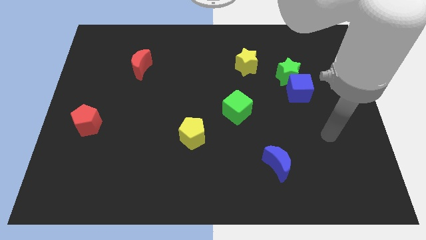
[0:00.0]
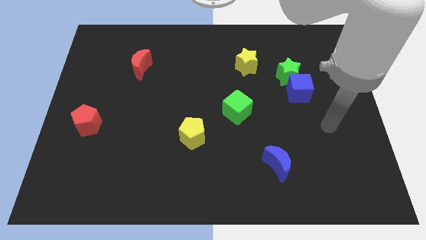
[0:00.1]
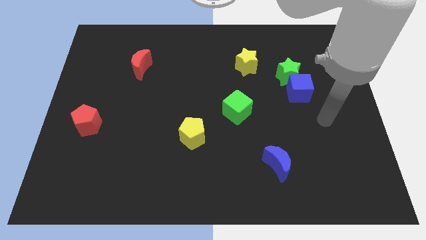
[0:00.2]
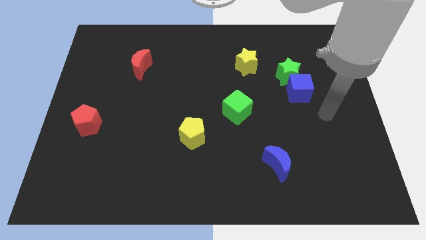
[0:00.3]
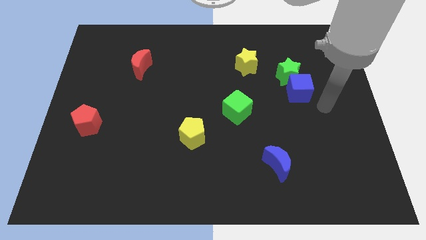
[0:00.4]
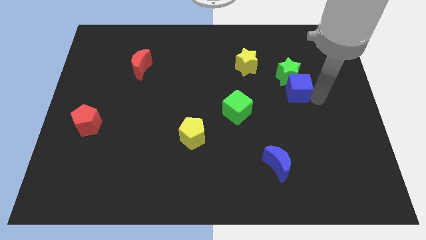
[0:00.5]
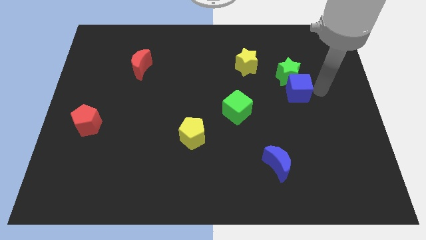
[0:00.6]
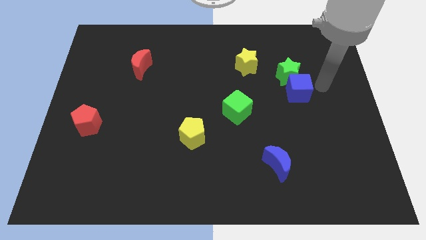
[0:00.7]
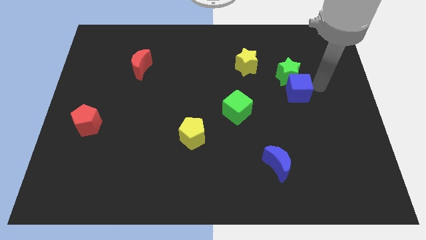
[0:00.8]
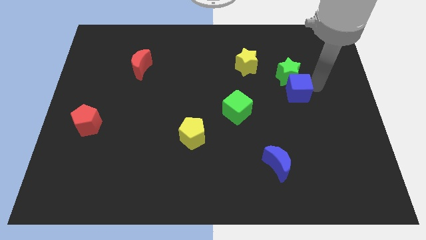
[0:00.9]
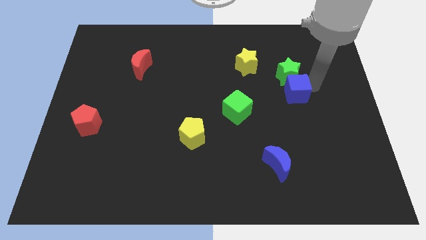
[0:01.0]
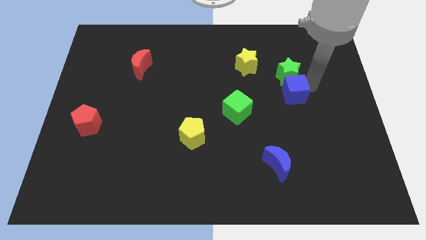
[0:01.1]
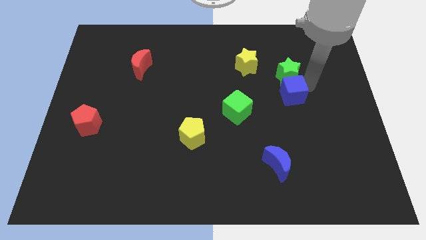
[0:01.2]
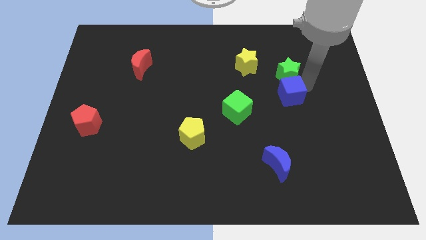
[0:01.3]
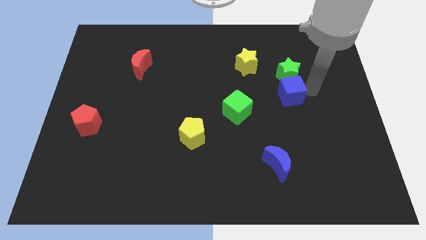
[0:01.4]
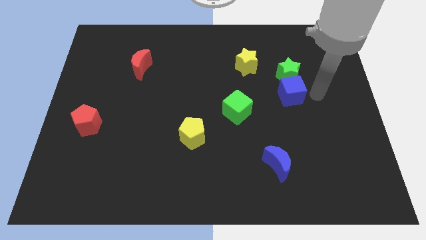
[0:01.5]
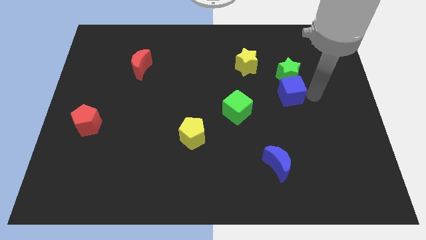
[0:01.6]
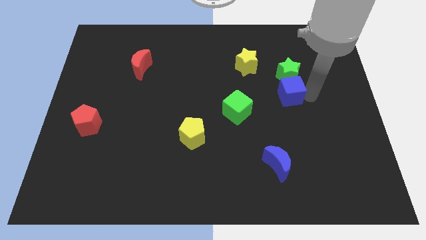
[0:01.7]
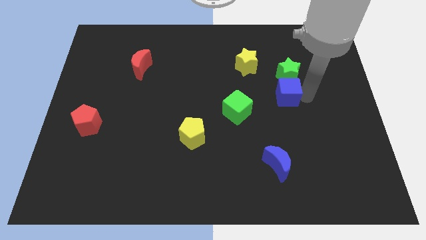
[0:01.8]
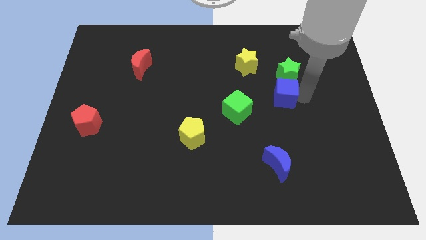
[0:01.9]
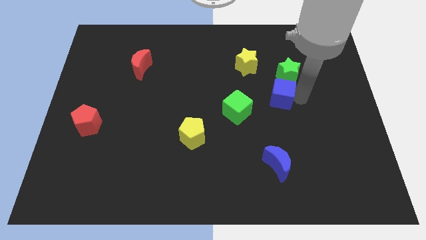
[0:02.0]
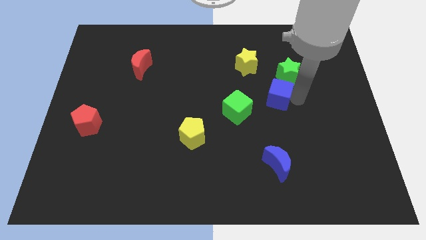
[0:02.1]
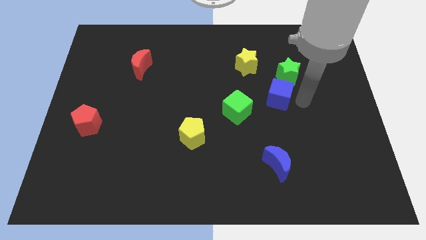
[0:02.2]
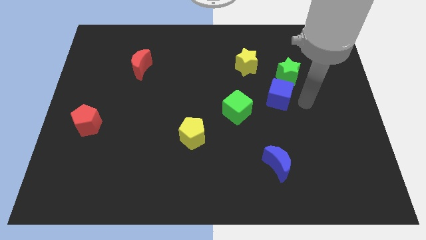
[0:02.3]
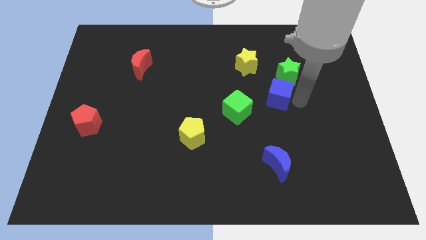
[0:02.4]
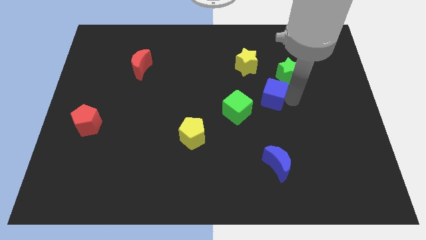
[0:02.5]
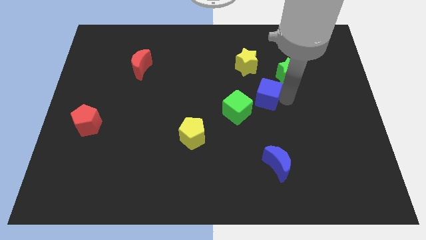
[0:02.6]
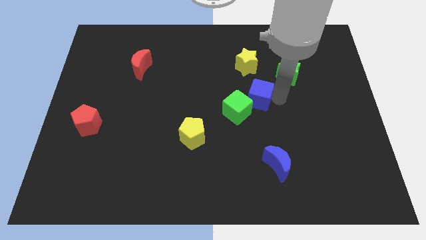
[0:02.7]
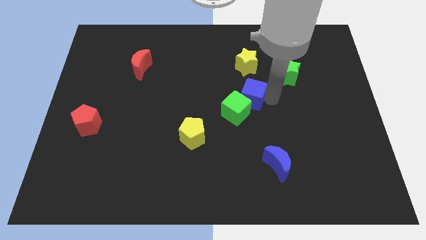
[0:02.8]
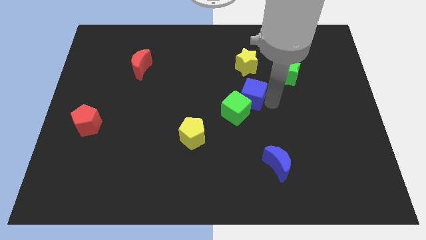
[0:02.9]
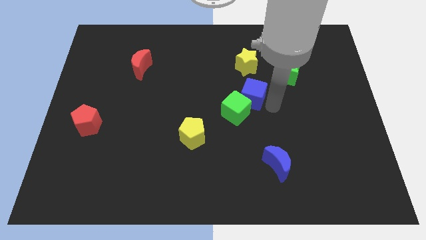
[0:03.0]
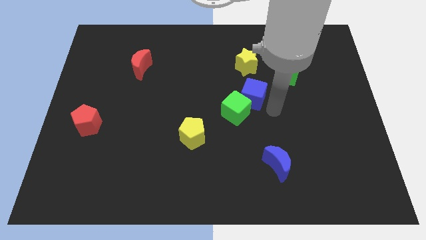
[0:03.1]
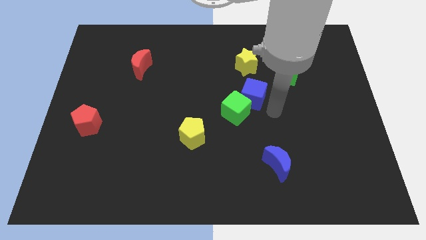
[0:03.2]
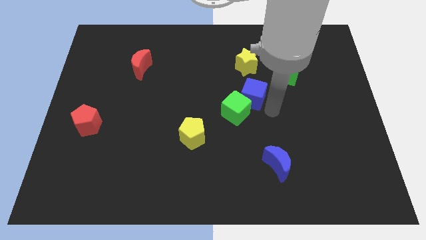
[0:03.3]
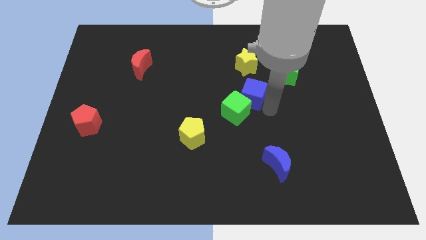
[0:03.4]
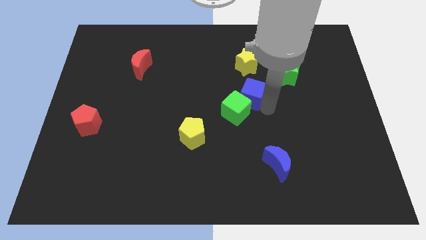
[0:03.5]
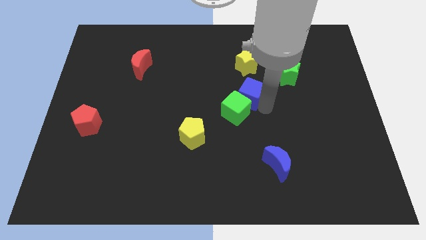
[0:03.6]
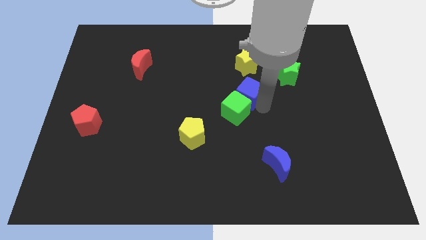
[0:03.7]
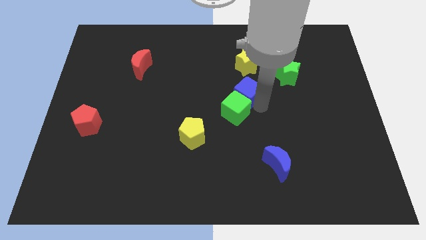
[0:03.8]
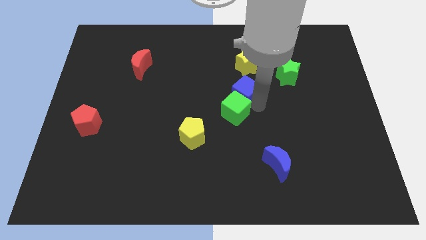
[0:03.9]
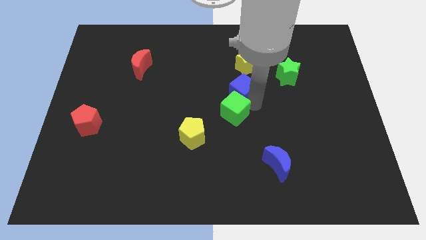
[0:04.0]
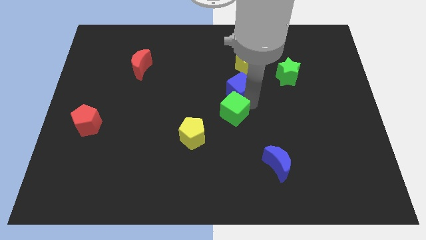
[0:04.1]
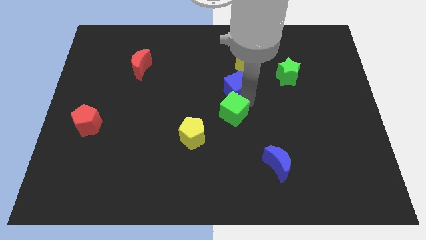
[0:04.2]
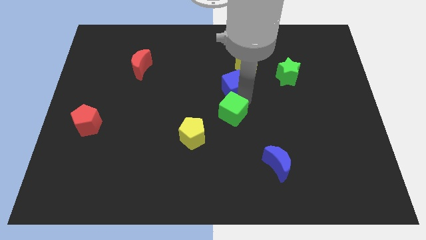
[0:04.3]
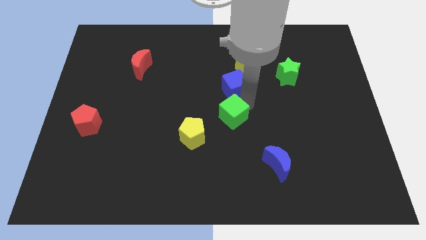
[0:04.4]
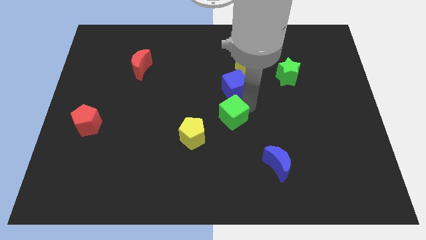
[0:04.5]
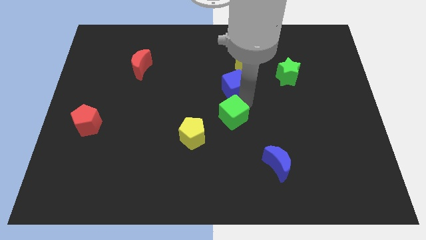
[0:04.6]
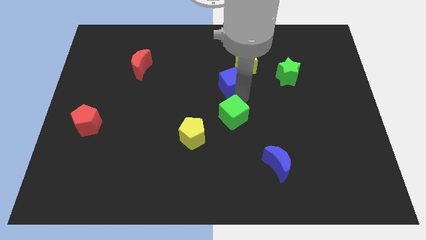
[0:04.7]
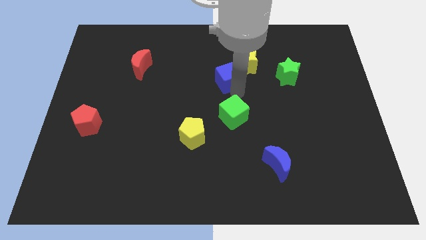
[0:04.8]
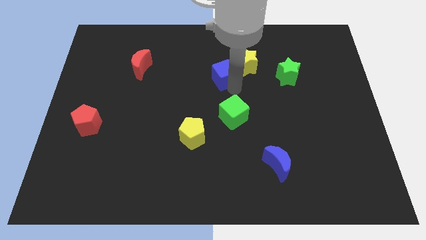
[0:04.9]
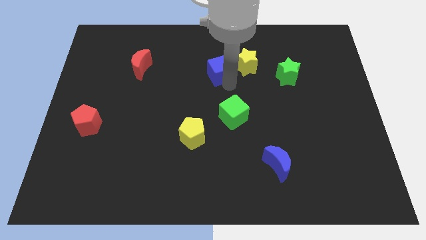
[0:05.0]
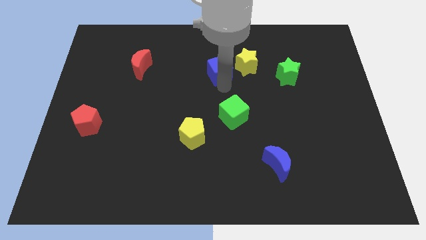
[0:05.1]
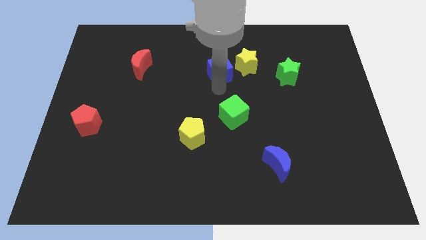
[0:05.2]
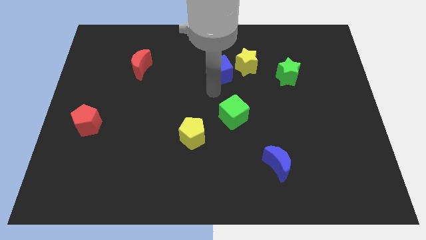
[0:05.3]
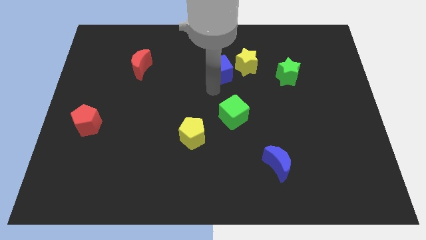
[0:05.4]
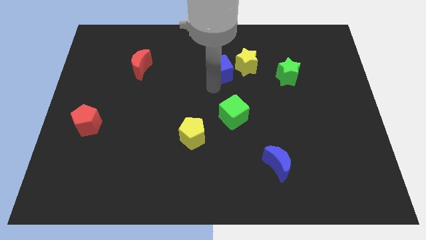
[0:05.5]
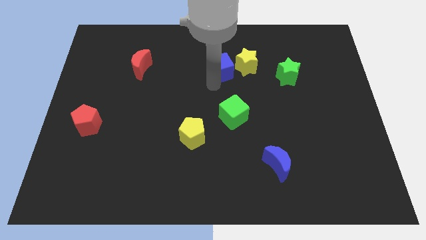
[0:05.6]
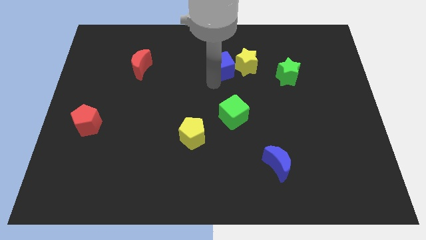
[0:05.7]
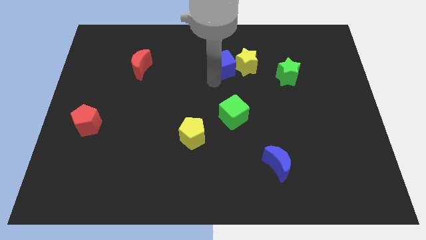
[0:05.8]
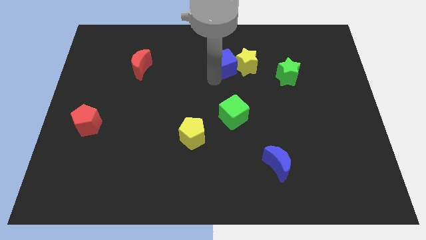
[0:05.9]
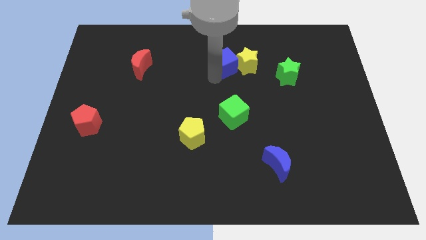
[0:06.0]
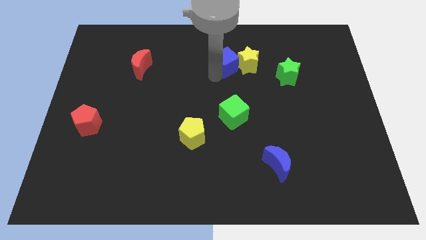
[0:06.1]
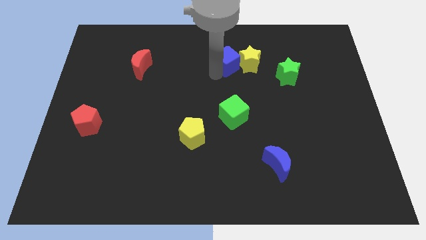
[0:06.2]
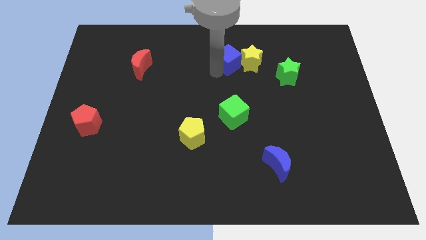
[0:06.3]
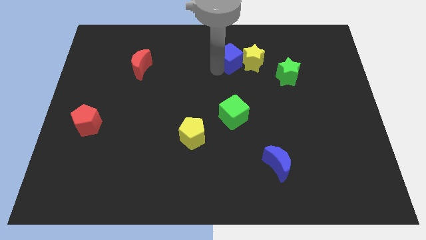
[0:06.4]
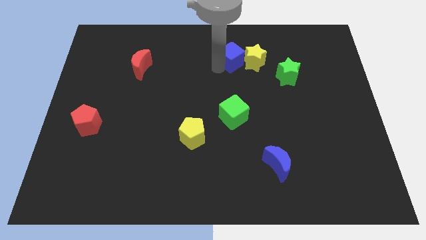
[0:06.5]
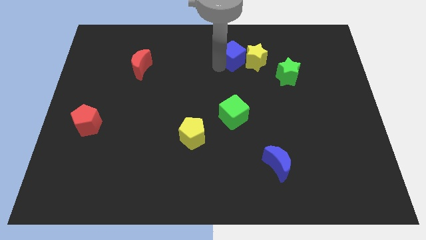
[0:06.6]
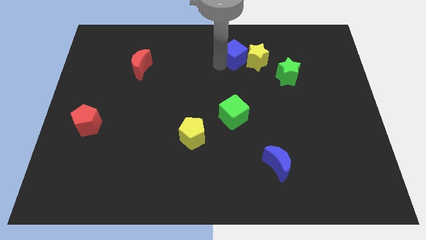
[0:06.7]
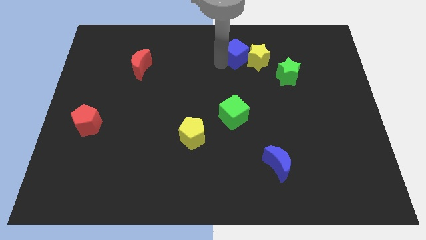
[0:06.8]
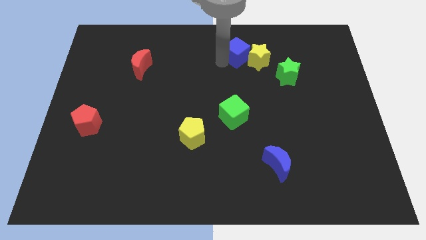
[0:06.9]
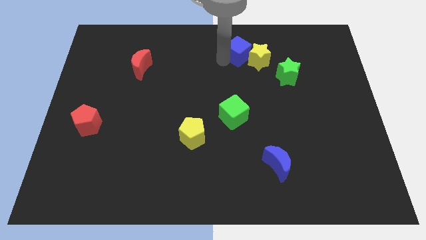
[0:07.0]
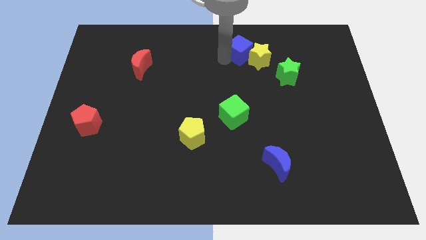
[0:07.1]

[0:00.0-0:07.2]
slide the blue cube to the top side

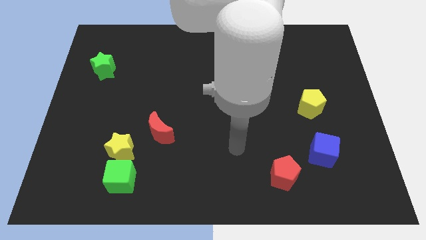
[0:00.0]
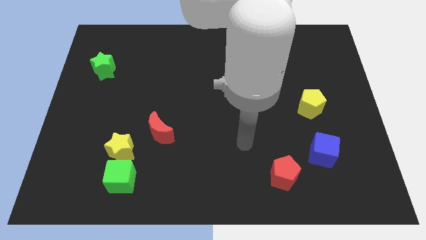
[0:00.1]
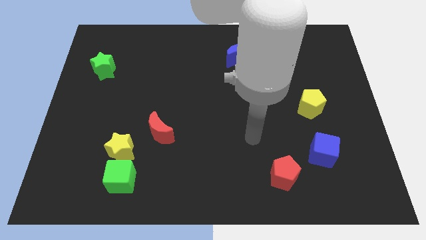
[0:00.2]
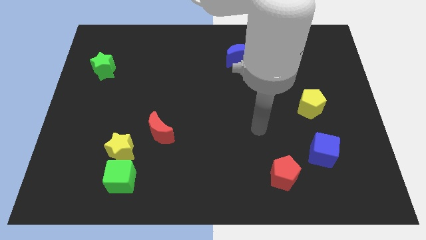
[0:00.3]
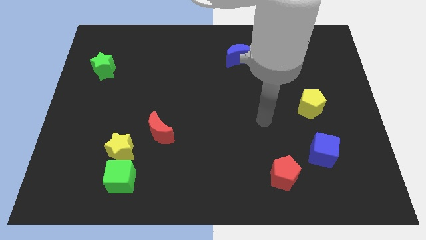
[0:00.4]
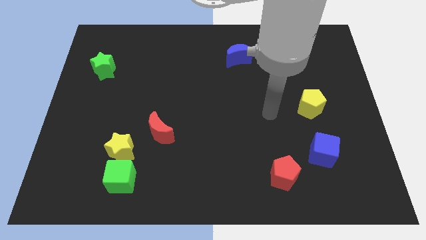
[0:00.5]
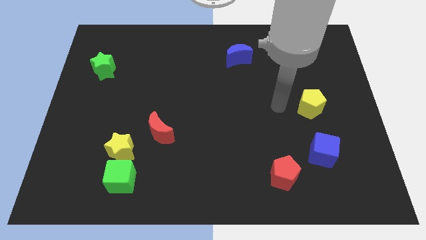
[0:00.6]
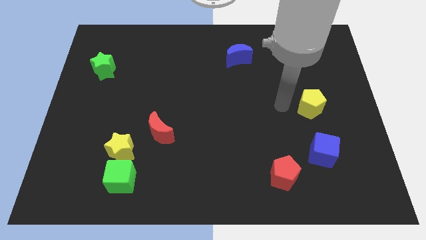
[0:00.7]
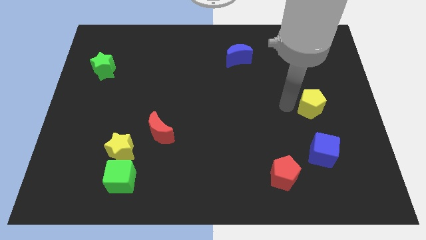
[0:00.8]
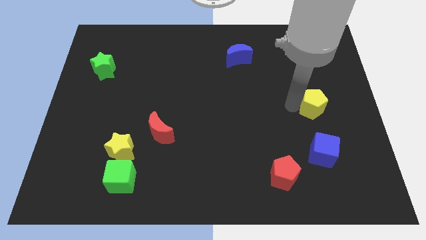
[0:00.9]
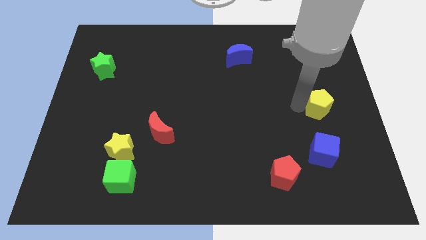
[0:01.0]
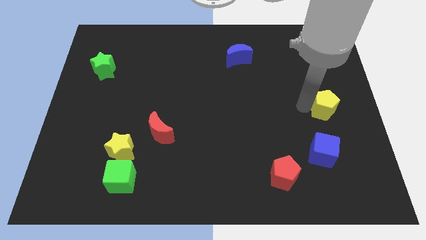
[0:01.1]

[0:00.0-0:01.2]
move the yellow pentagon to the center right
